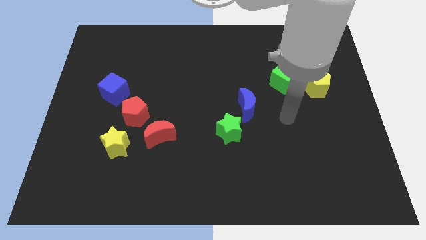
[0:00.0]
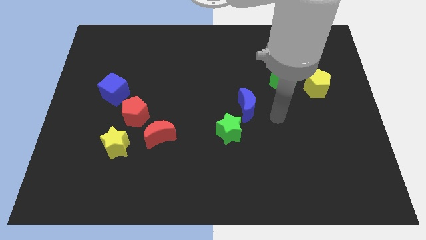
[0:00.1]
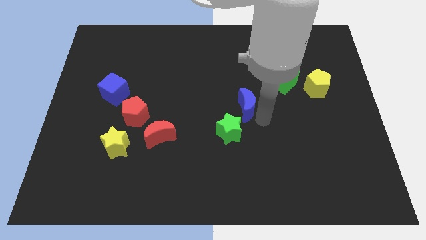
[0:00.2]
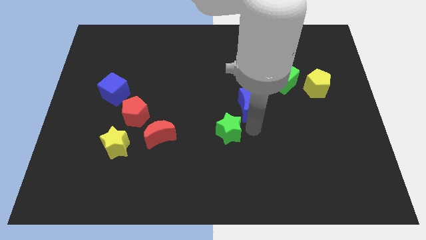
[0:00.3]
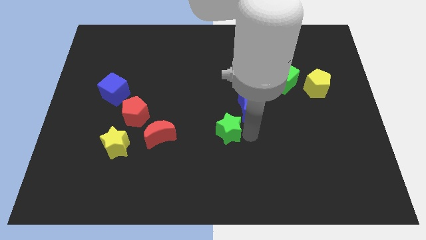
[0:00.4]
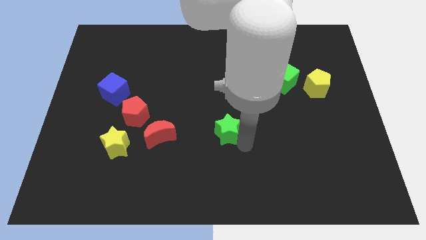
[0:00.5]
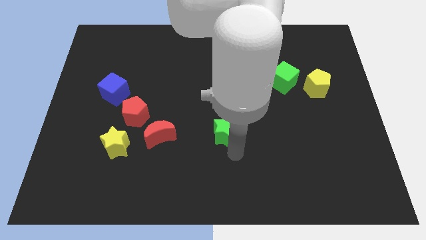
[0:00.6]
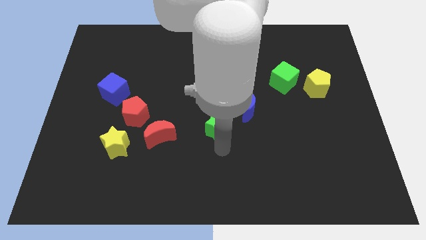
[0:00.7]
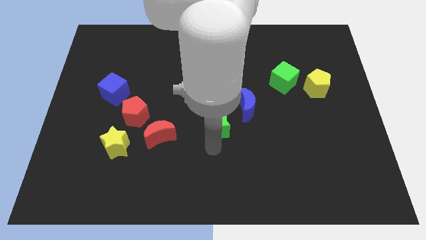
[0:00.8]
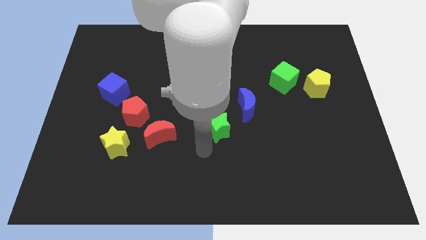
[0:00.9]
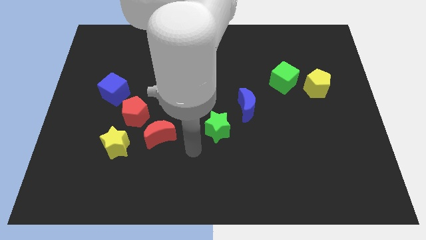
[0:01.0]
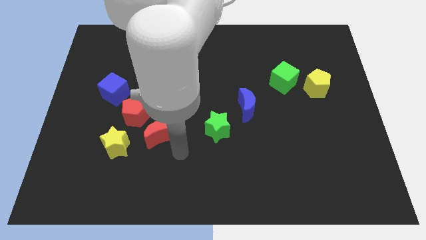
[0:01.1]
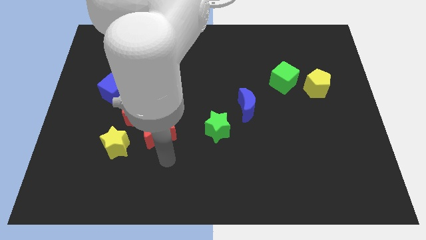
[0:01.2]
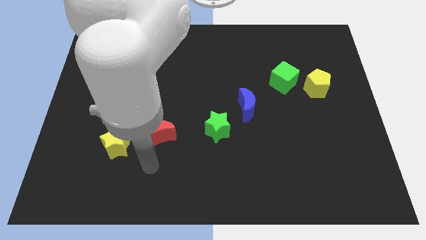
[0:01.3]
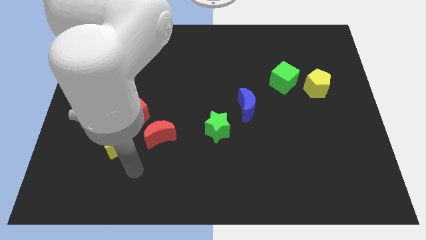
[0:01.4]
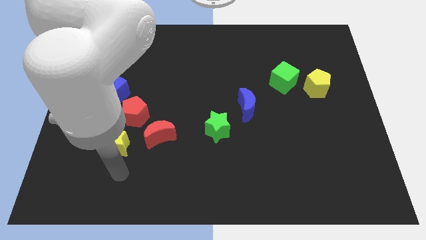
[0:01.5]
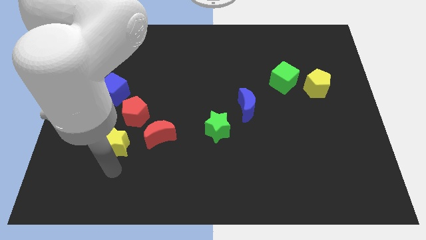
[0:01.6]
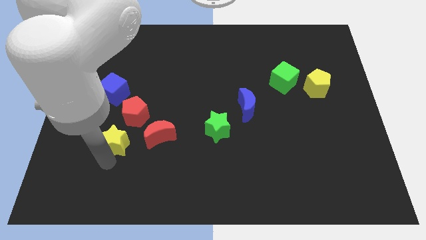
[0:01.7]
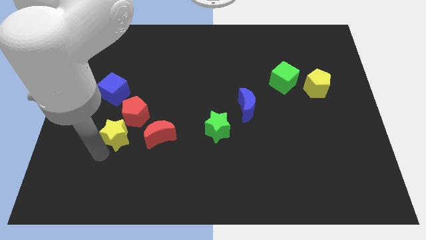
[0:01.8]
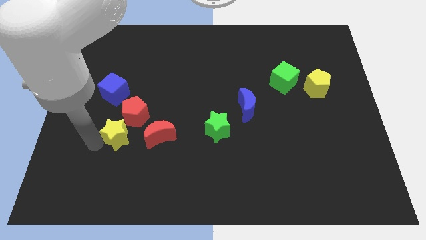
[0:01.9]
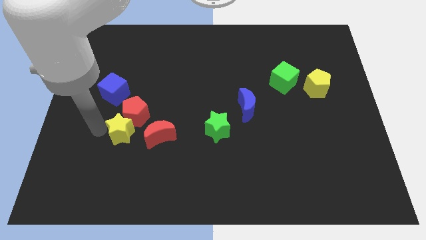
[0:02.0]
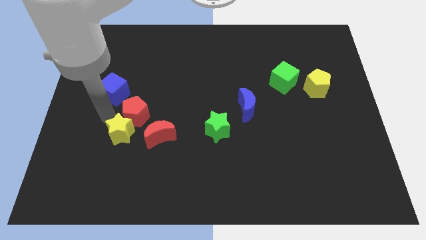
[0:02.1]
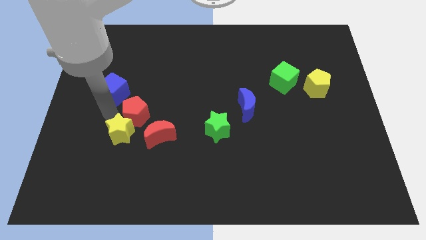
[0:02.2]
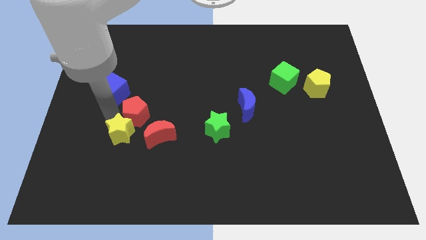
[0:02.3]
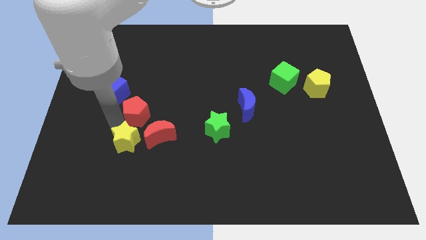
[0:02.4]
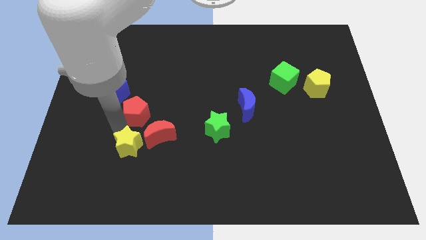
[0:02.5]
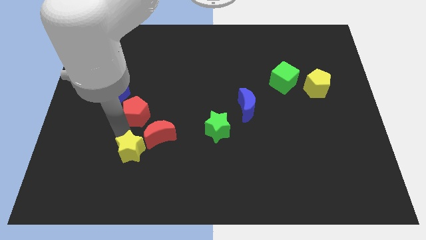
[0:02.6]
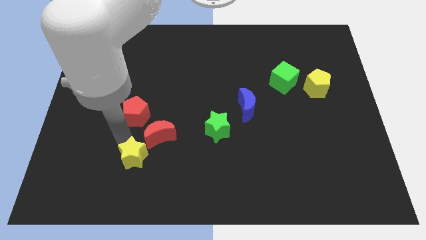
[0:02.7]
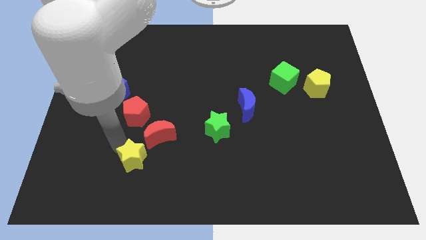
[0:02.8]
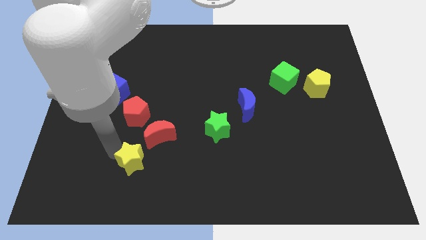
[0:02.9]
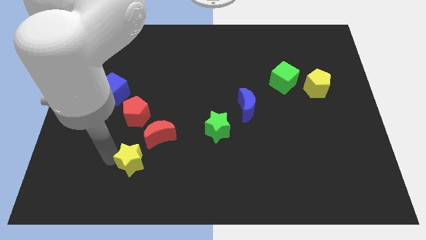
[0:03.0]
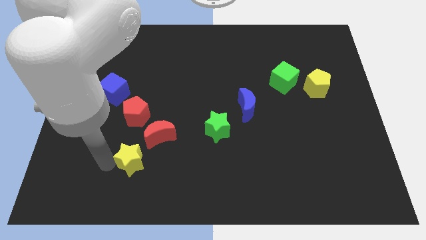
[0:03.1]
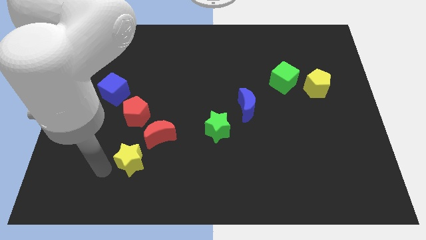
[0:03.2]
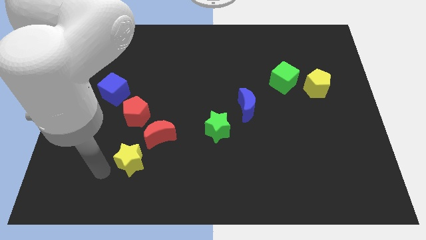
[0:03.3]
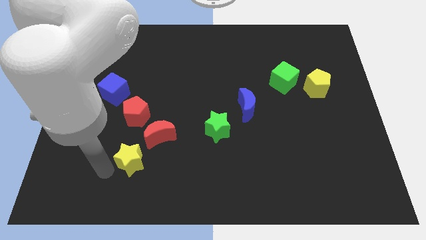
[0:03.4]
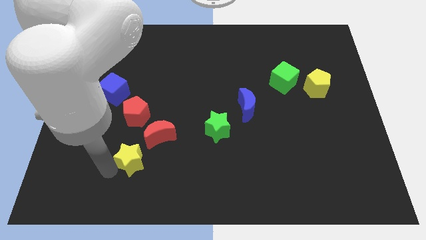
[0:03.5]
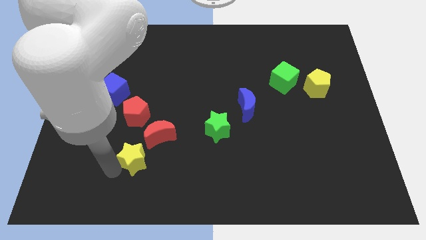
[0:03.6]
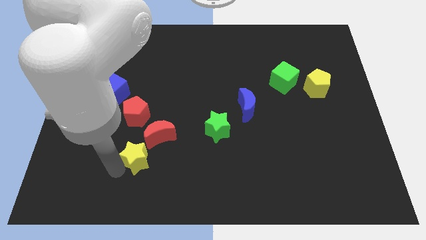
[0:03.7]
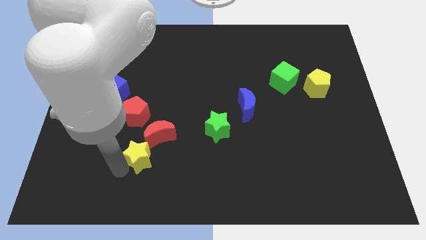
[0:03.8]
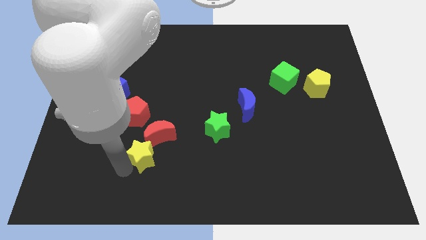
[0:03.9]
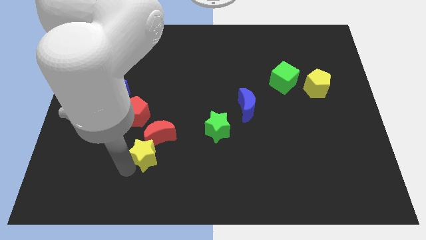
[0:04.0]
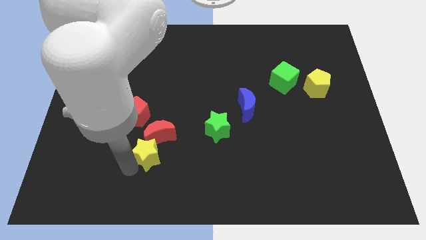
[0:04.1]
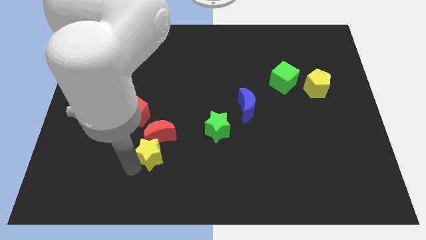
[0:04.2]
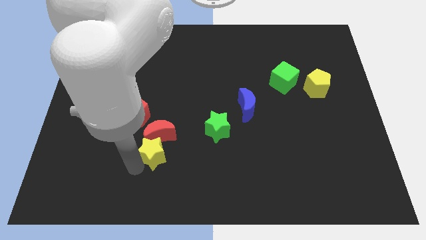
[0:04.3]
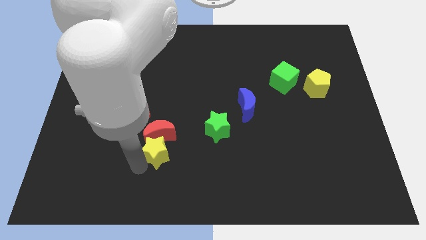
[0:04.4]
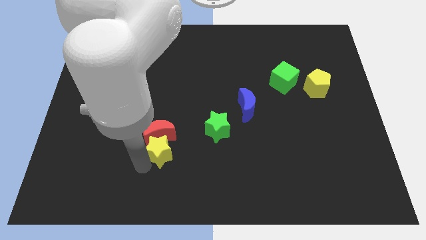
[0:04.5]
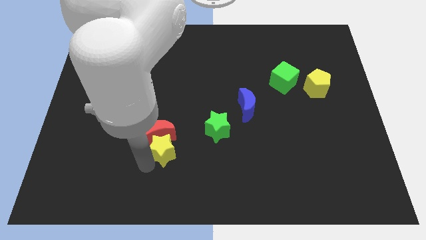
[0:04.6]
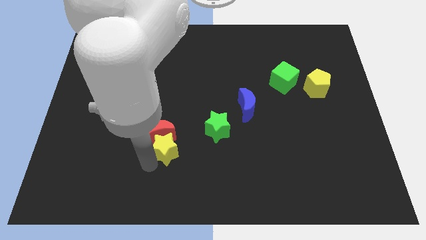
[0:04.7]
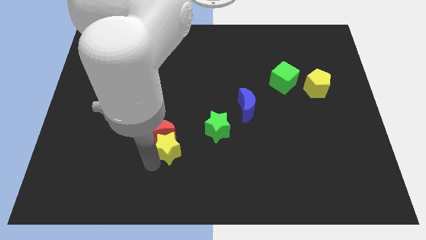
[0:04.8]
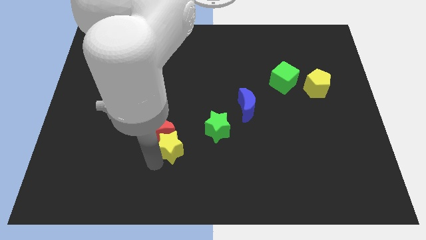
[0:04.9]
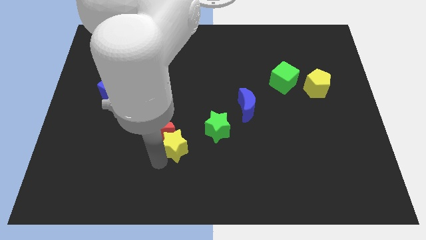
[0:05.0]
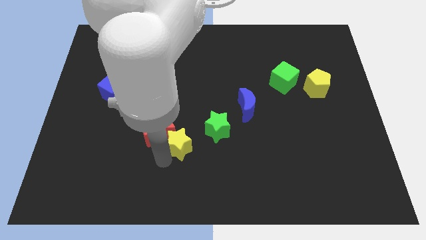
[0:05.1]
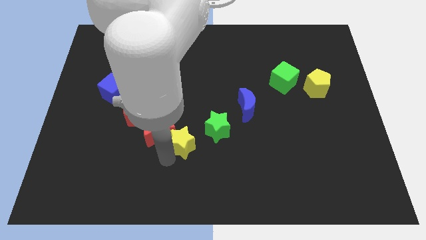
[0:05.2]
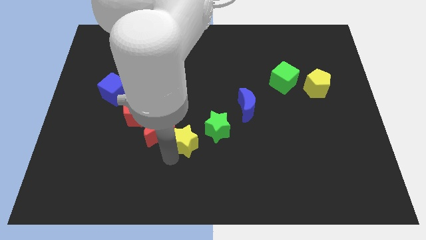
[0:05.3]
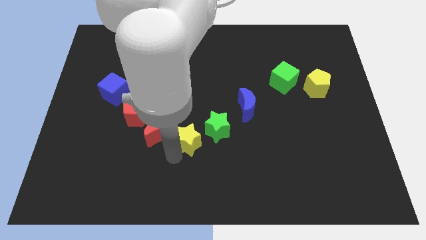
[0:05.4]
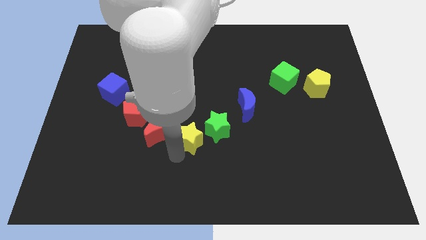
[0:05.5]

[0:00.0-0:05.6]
push the yellow star next to the green star
